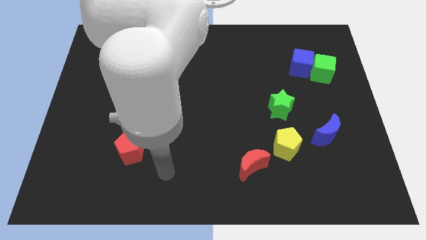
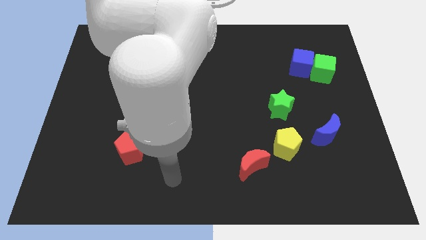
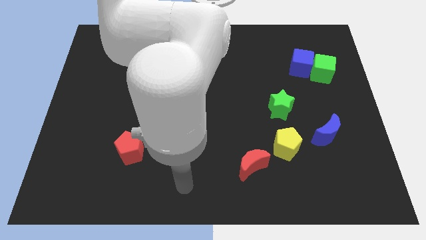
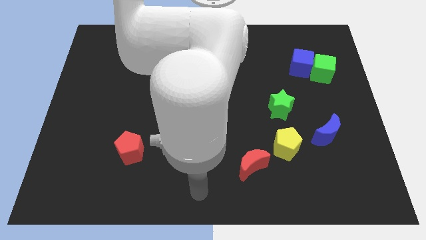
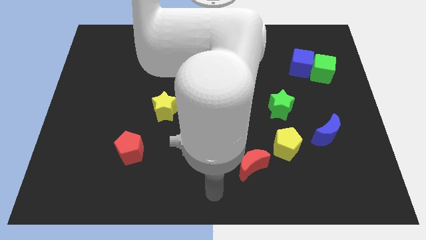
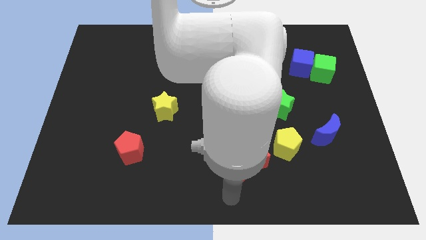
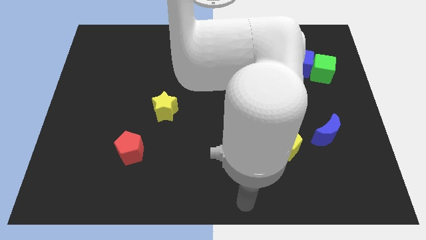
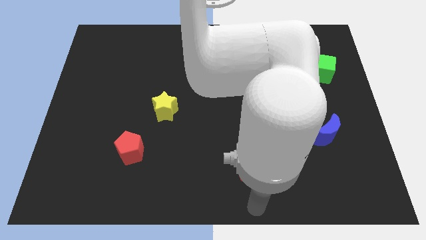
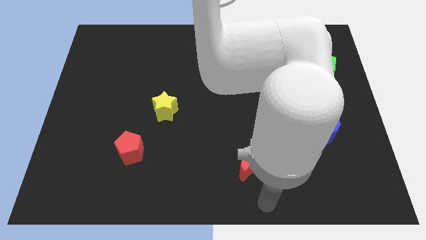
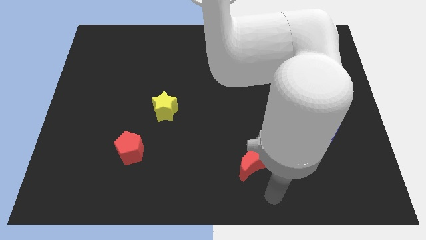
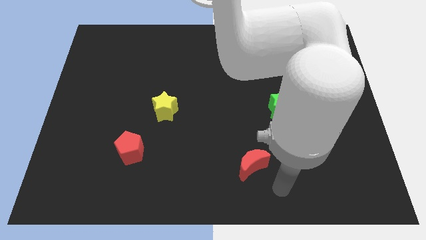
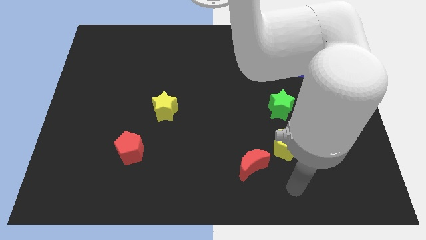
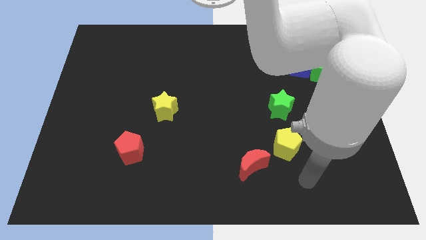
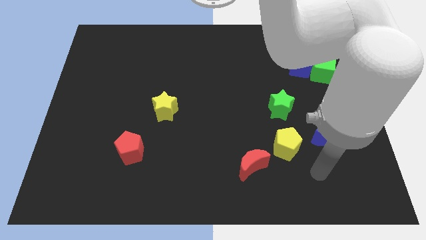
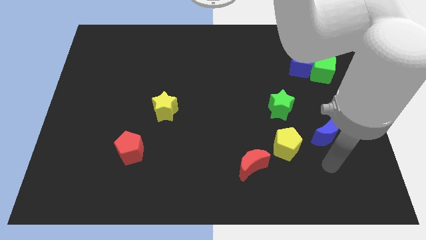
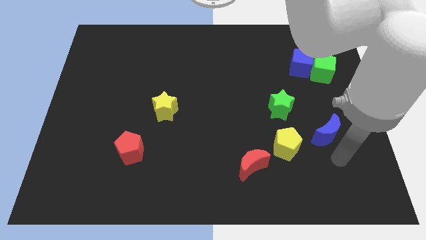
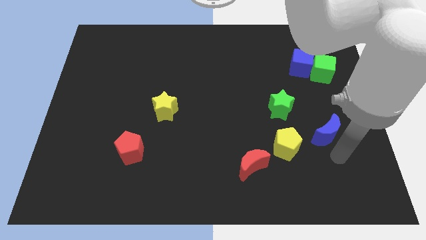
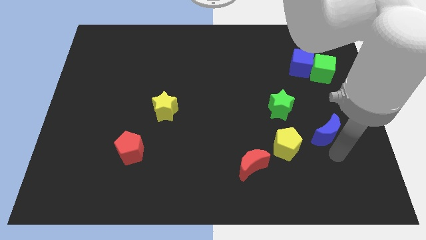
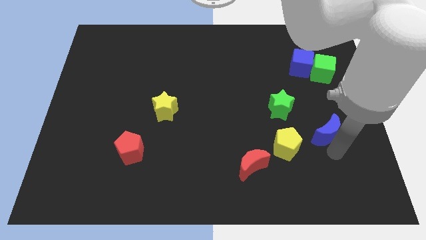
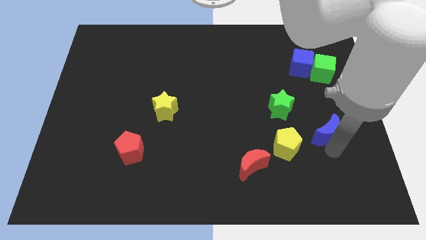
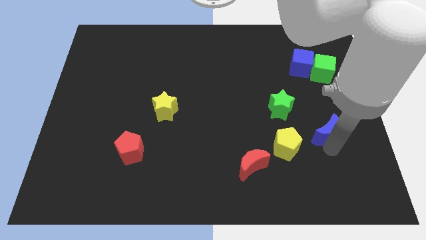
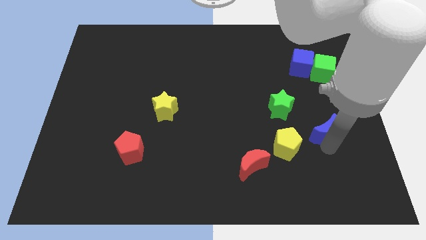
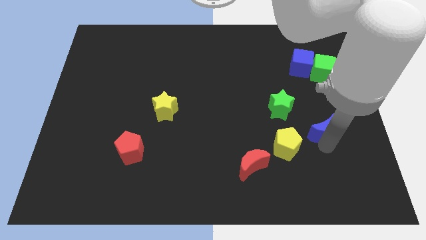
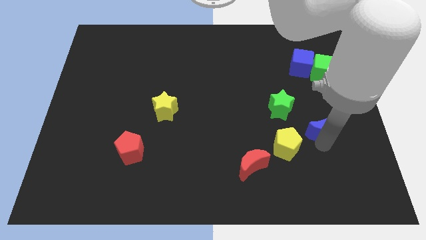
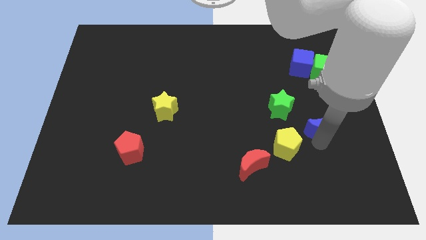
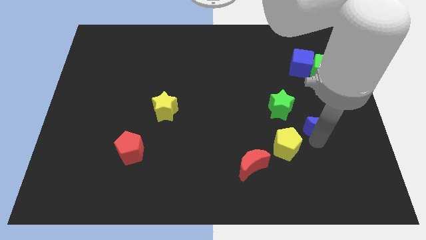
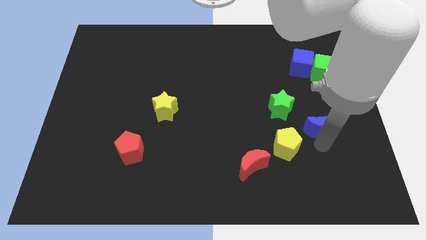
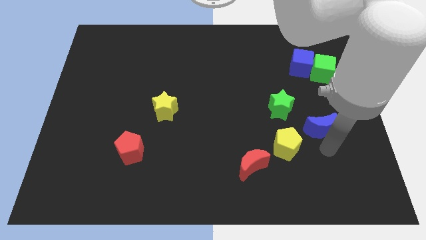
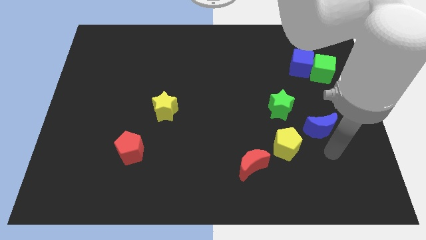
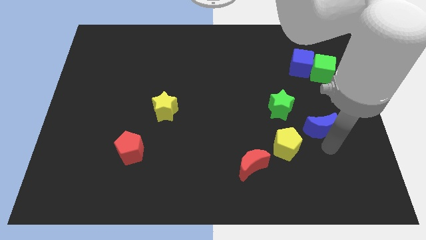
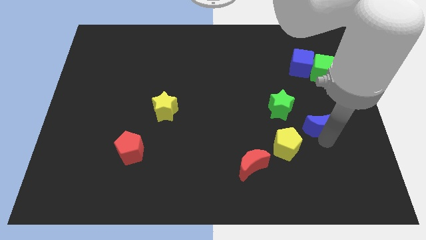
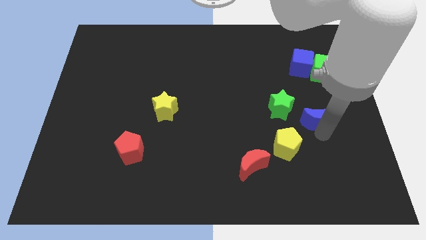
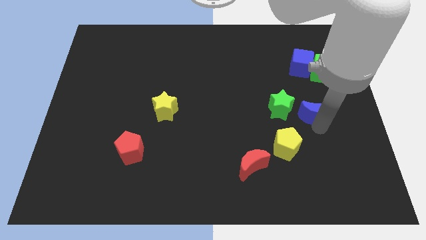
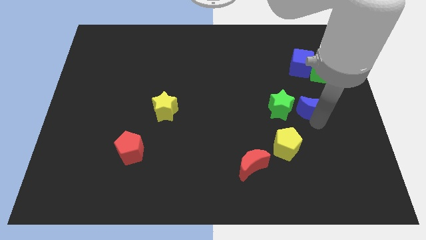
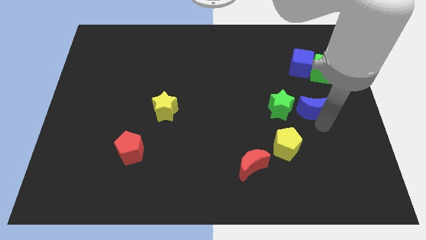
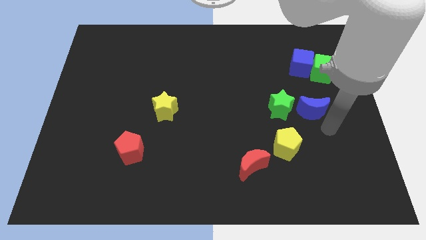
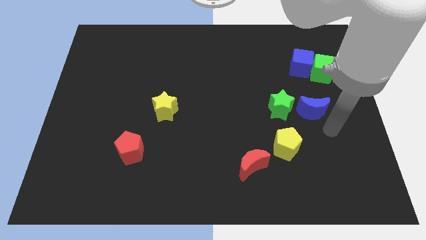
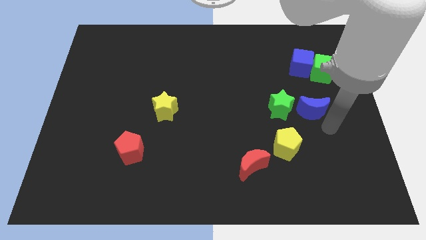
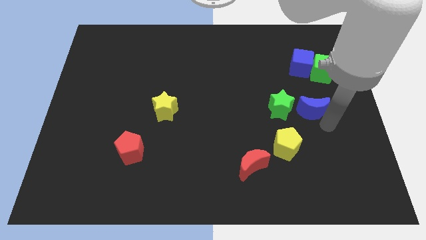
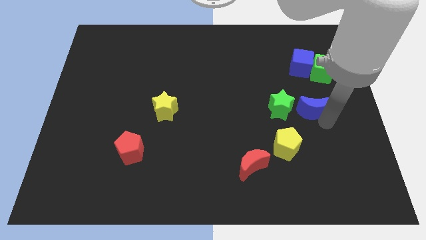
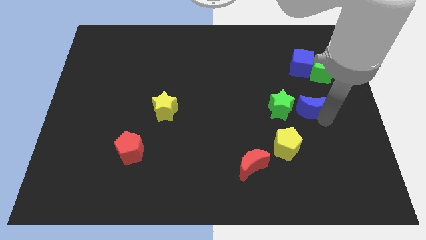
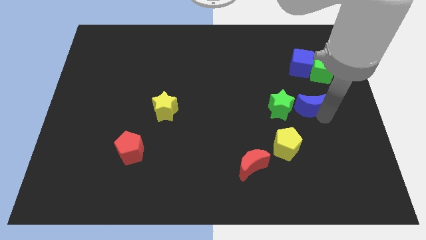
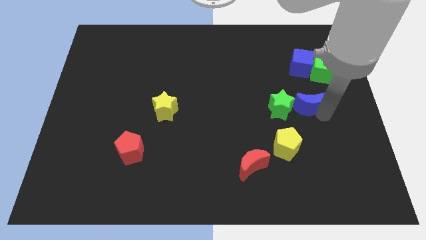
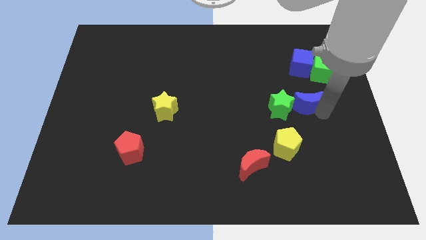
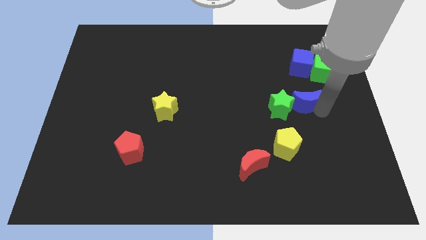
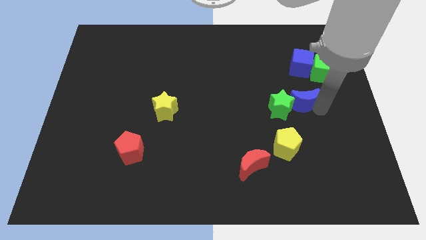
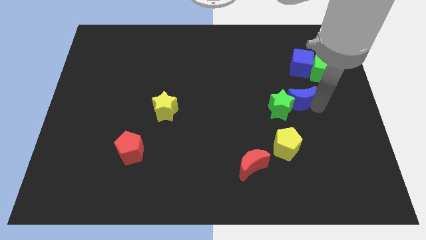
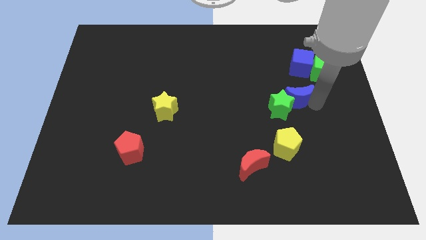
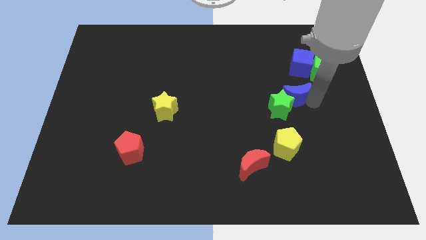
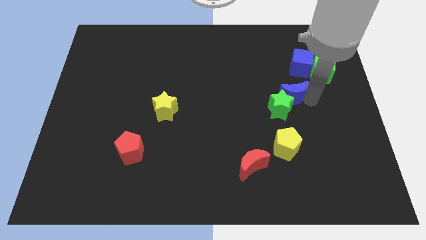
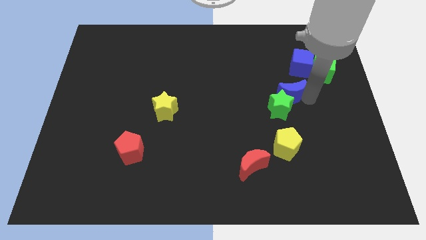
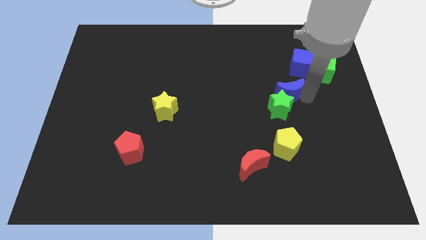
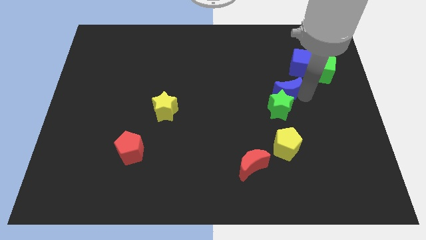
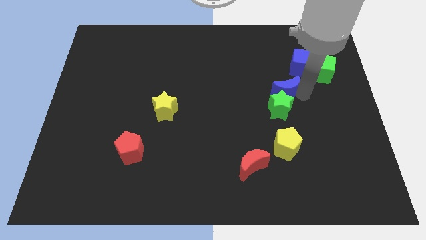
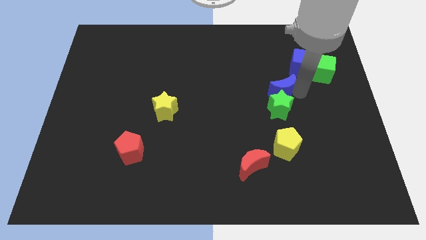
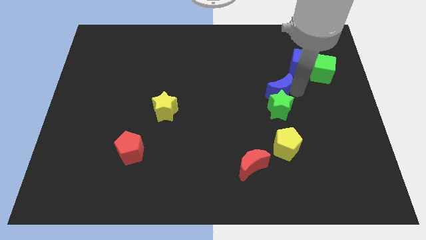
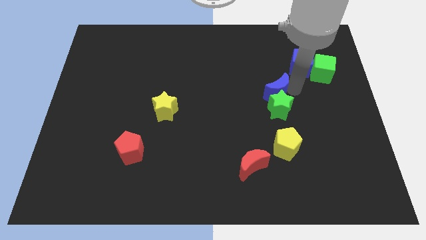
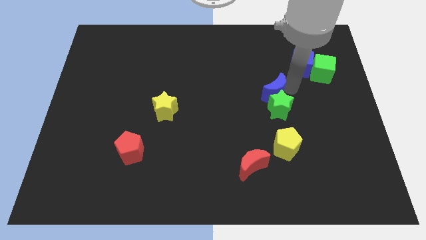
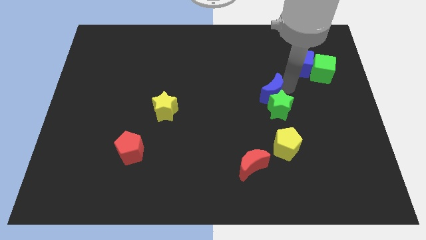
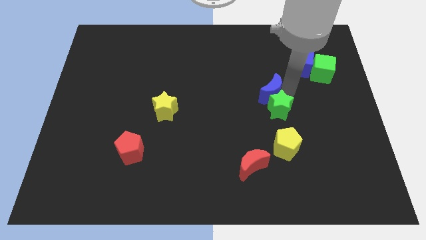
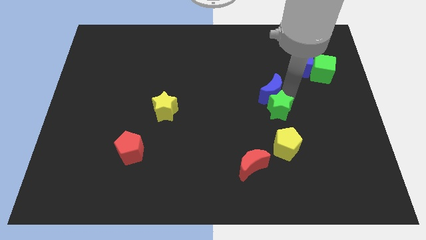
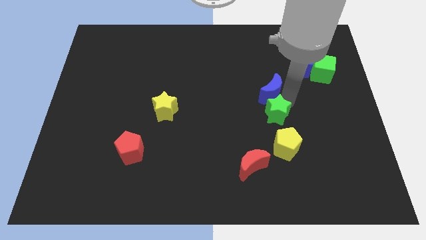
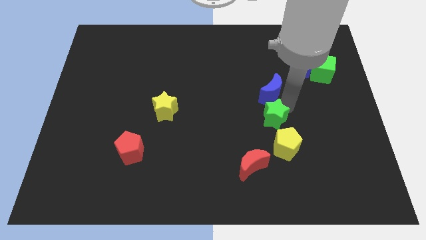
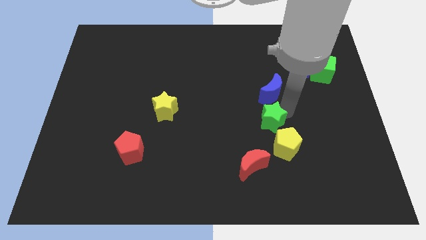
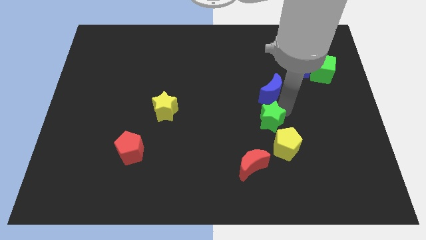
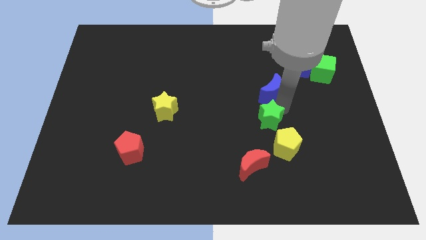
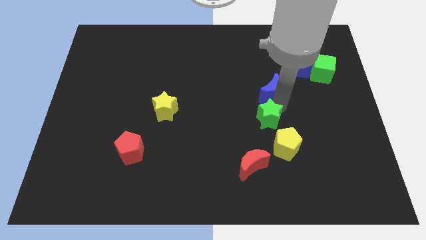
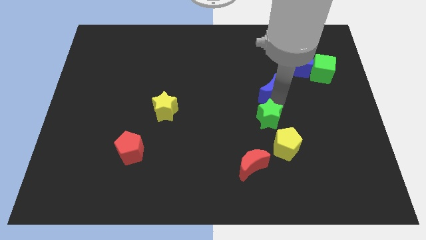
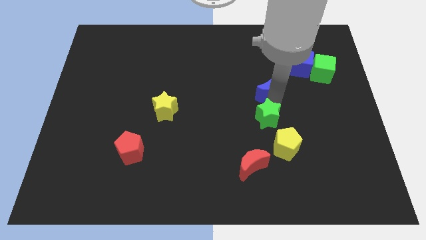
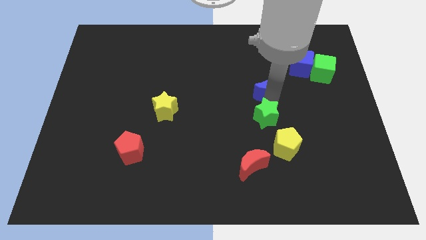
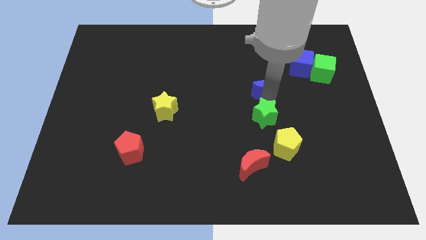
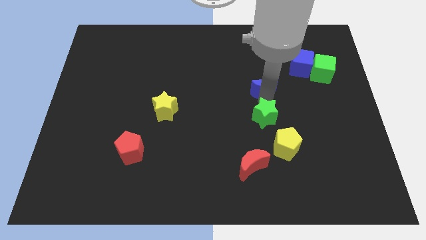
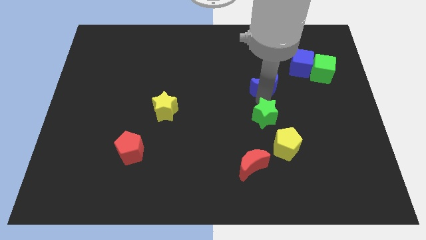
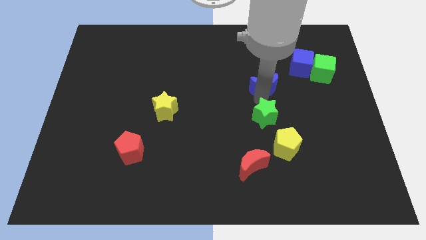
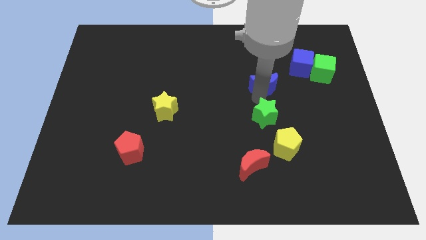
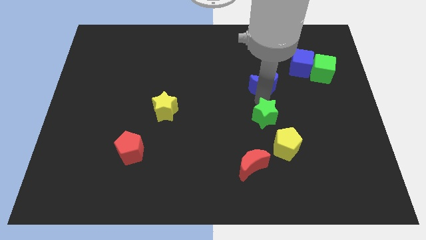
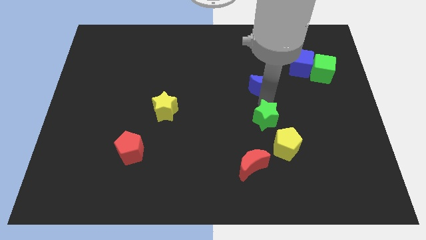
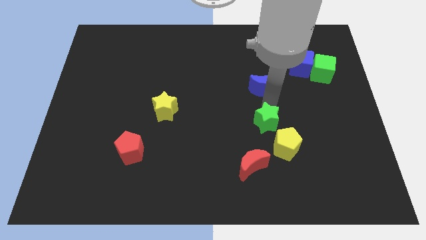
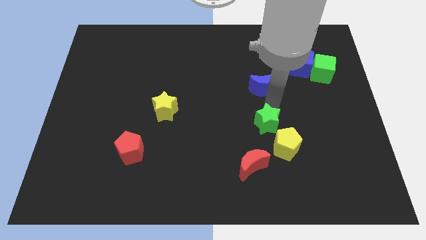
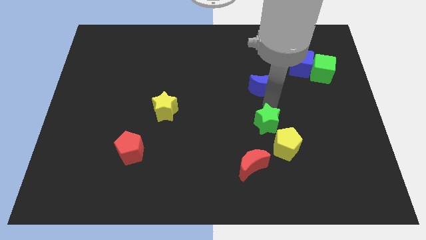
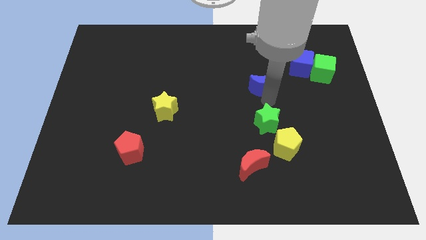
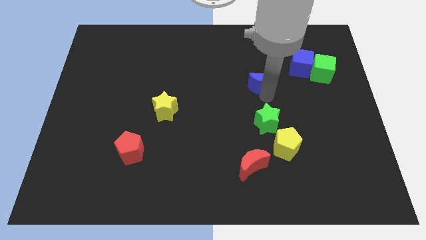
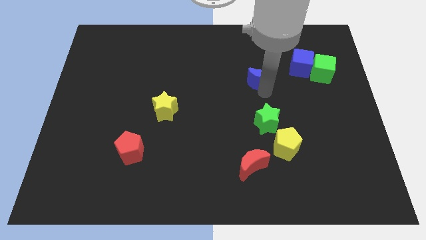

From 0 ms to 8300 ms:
push the blue moon upwards and then left
